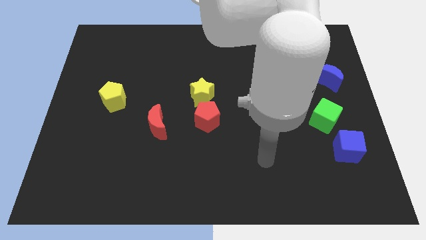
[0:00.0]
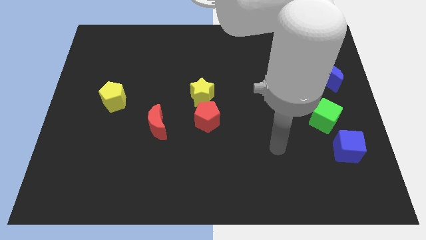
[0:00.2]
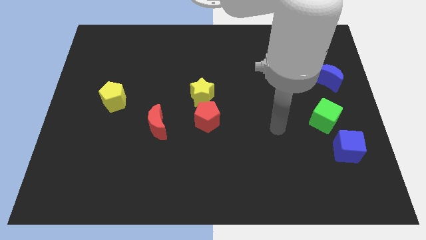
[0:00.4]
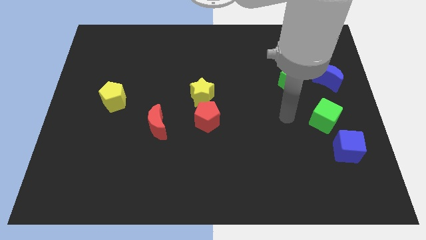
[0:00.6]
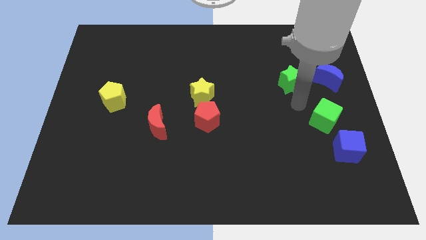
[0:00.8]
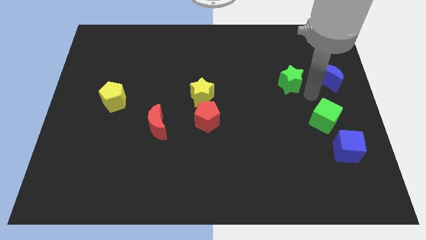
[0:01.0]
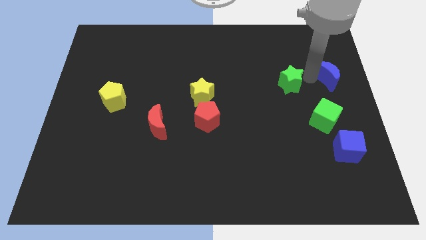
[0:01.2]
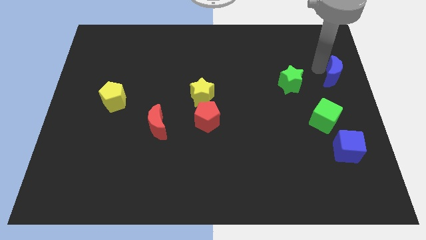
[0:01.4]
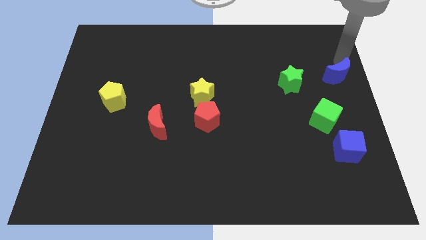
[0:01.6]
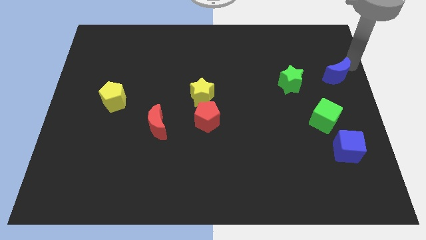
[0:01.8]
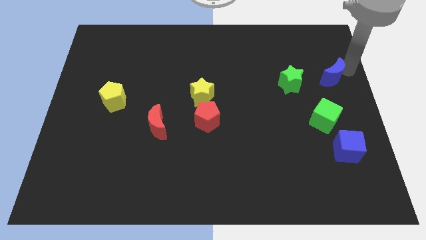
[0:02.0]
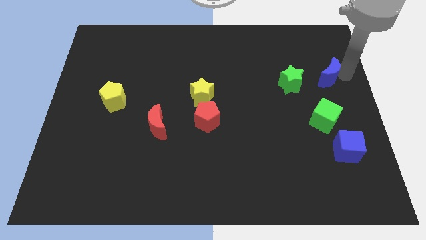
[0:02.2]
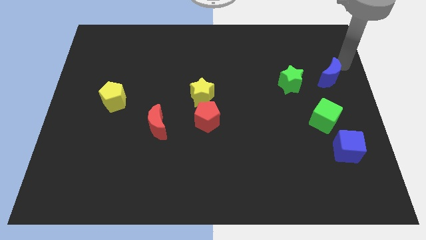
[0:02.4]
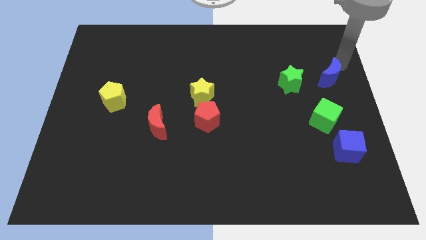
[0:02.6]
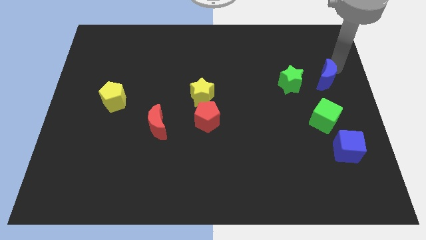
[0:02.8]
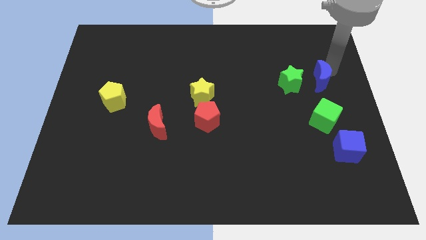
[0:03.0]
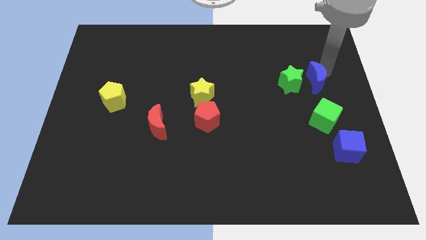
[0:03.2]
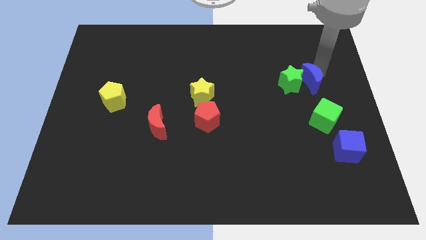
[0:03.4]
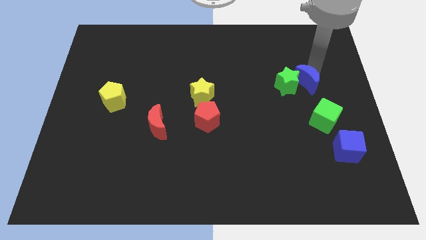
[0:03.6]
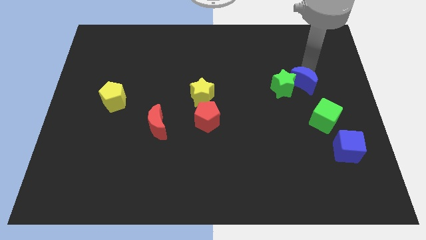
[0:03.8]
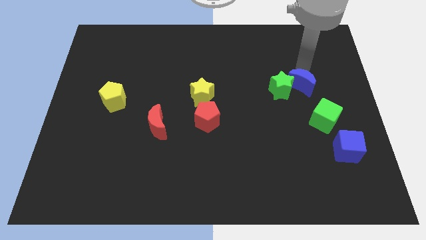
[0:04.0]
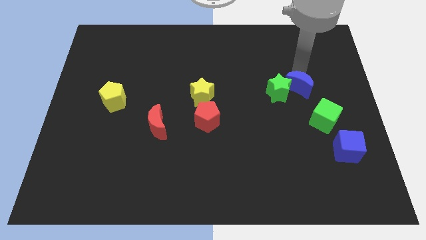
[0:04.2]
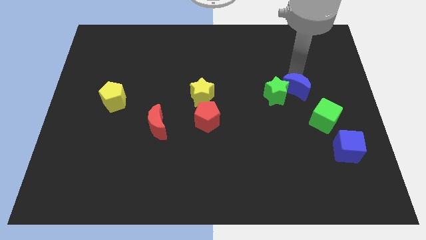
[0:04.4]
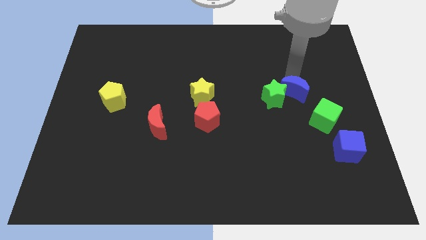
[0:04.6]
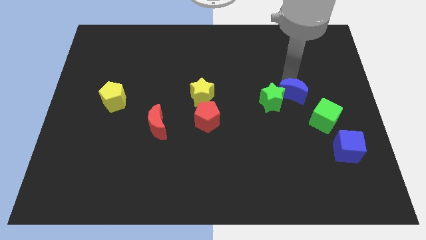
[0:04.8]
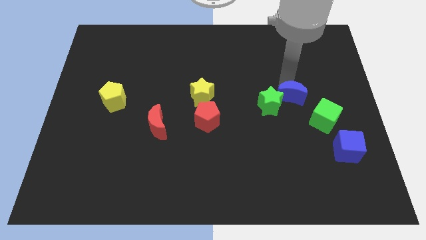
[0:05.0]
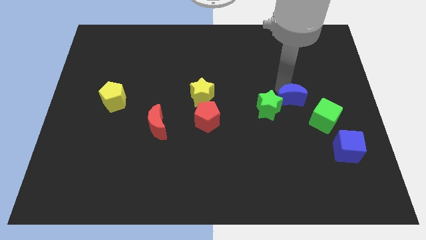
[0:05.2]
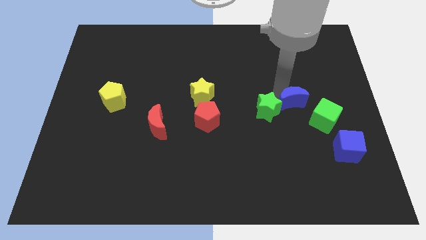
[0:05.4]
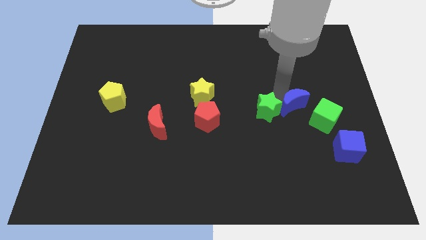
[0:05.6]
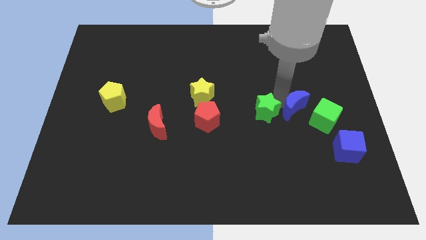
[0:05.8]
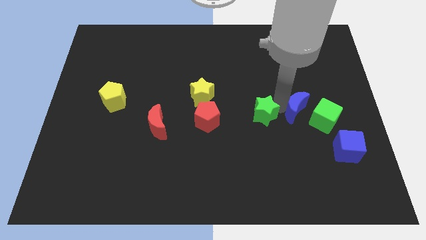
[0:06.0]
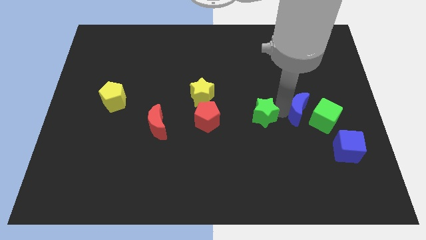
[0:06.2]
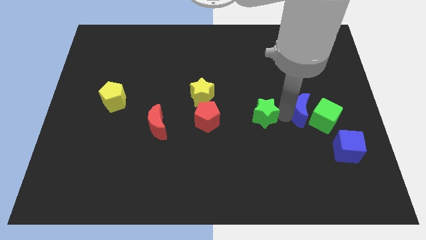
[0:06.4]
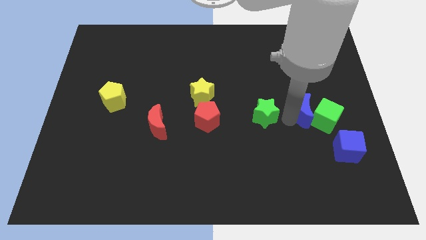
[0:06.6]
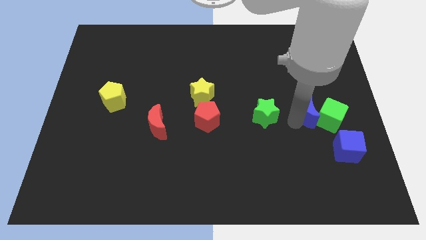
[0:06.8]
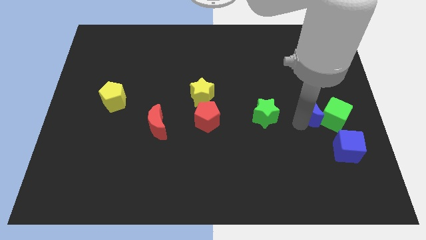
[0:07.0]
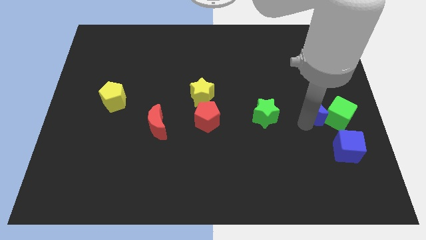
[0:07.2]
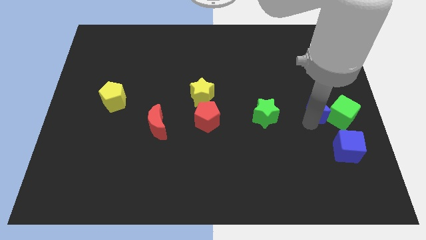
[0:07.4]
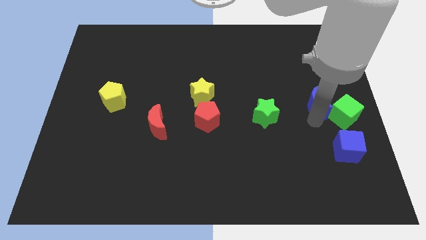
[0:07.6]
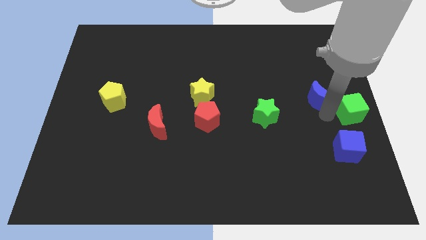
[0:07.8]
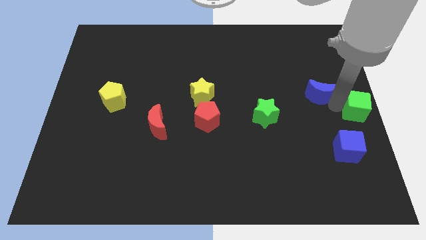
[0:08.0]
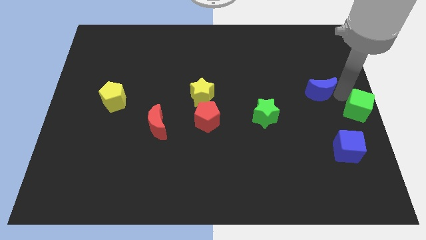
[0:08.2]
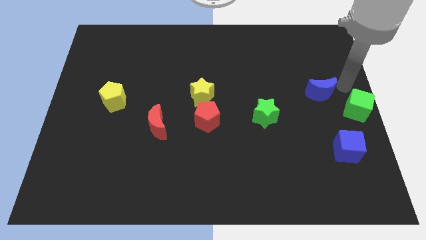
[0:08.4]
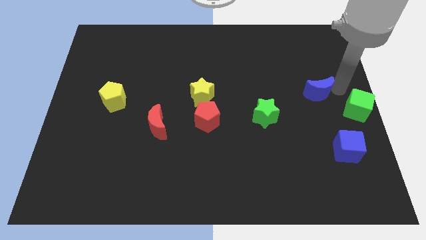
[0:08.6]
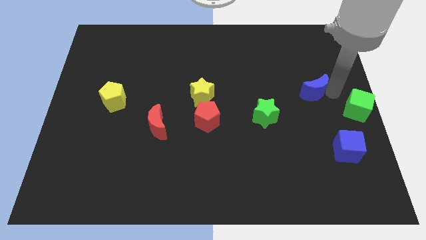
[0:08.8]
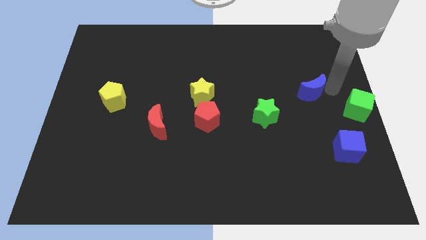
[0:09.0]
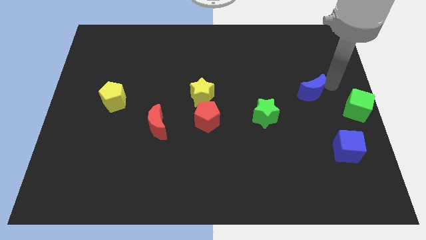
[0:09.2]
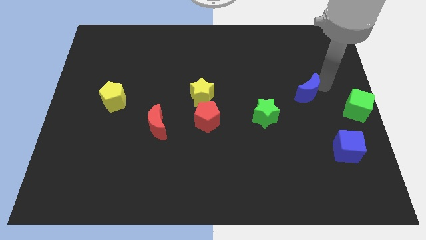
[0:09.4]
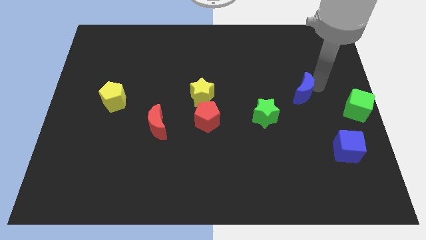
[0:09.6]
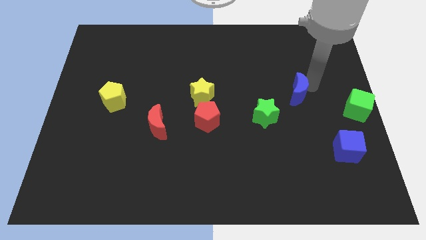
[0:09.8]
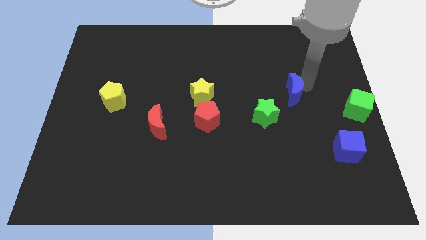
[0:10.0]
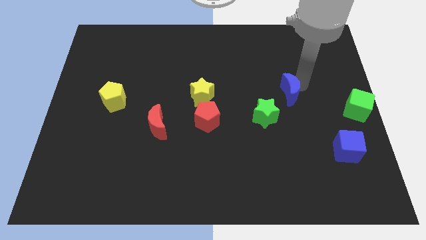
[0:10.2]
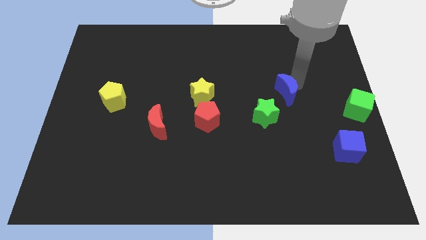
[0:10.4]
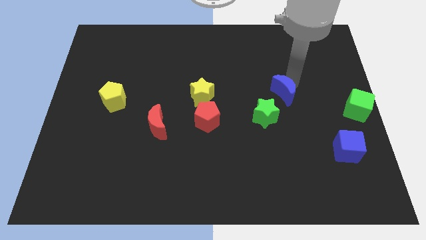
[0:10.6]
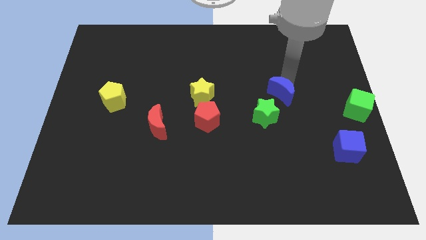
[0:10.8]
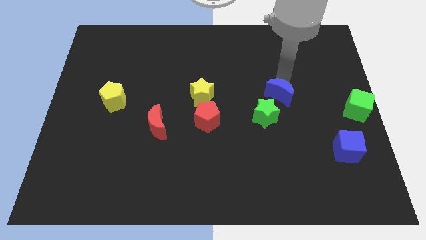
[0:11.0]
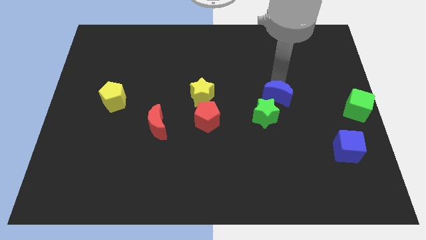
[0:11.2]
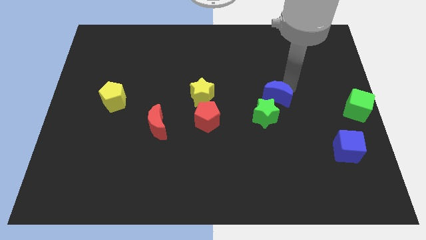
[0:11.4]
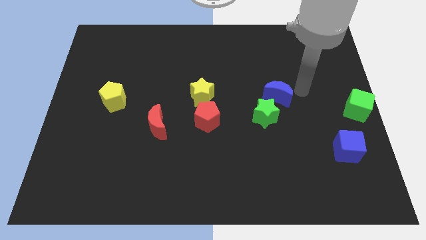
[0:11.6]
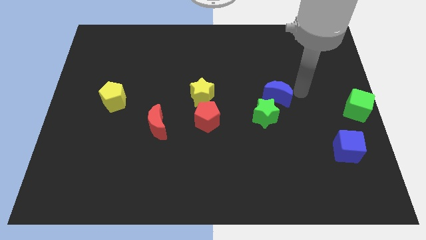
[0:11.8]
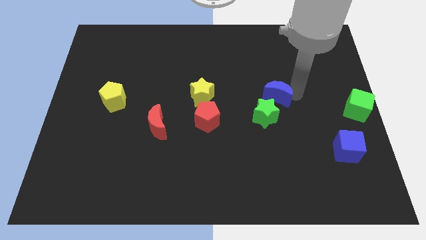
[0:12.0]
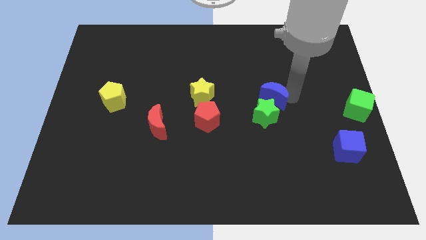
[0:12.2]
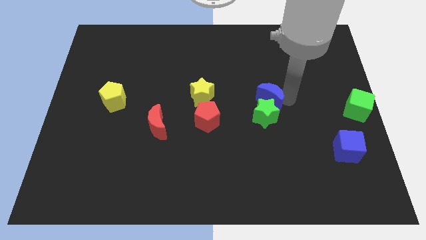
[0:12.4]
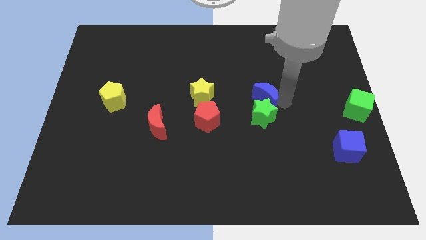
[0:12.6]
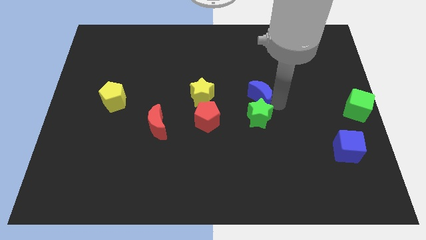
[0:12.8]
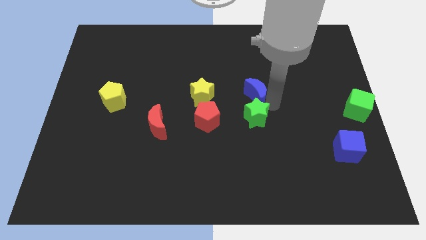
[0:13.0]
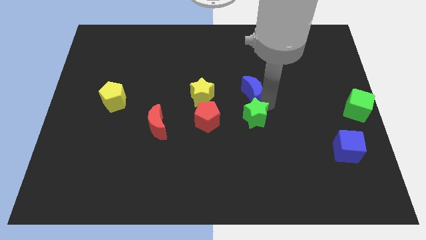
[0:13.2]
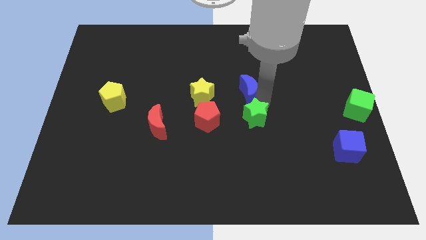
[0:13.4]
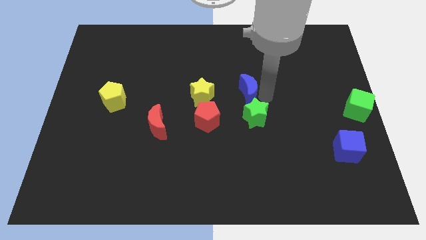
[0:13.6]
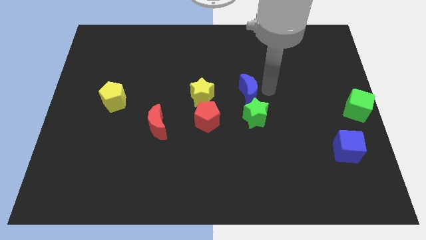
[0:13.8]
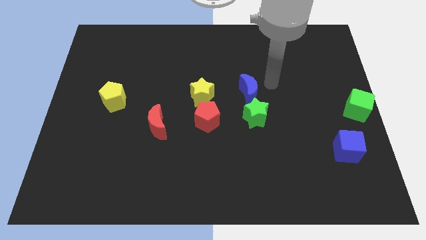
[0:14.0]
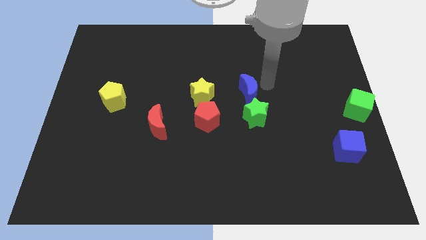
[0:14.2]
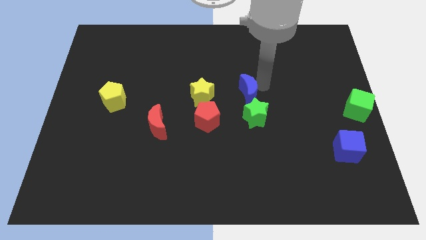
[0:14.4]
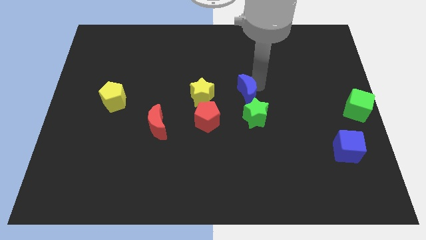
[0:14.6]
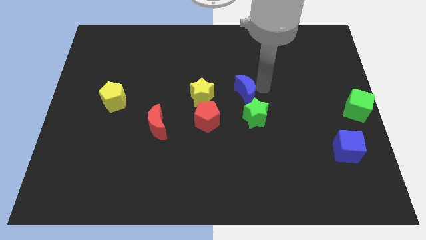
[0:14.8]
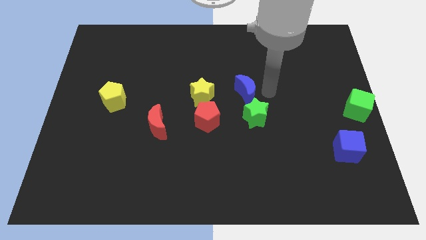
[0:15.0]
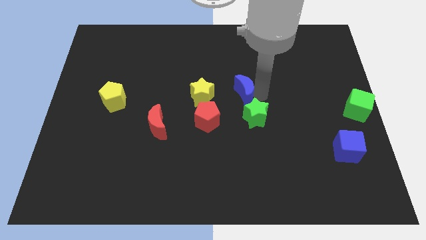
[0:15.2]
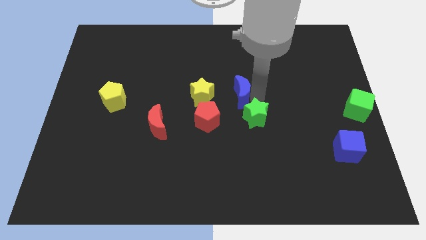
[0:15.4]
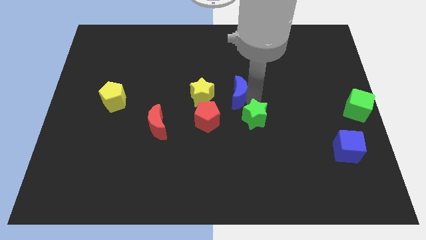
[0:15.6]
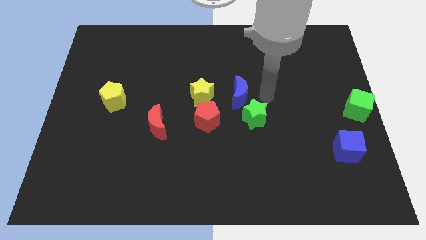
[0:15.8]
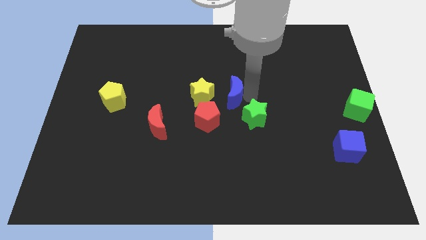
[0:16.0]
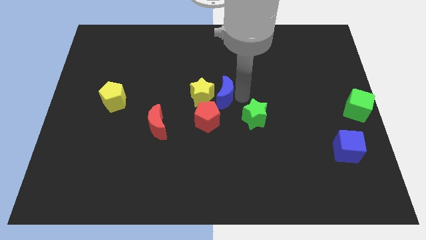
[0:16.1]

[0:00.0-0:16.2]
move the blue moon next to the yellow star
